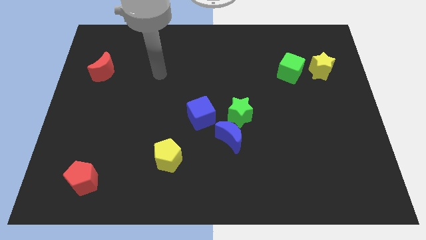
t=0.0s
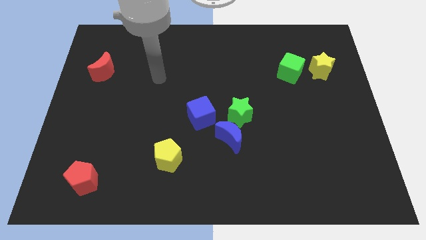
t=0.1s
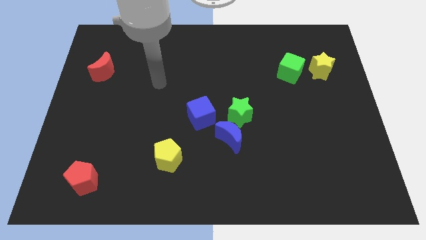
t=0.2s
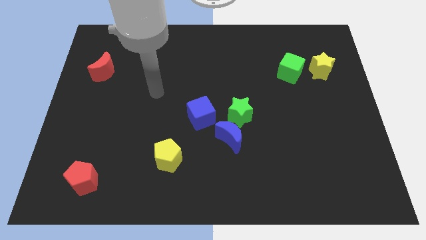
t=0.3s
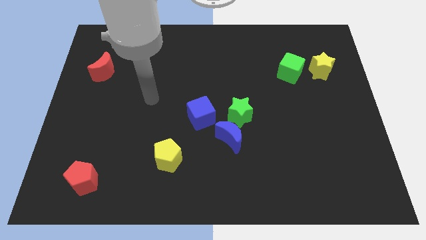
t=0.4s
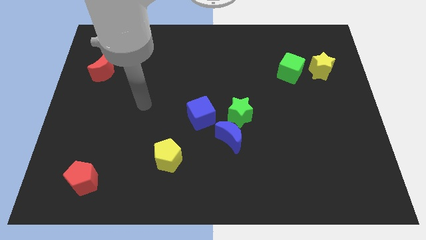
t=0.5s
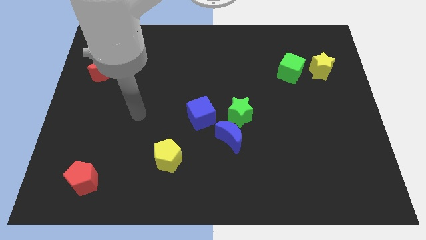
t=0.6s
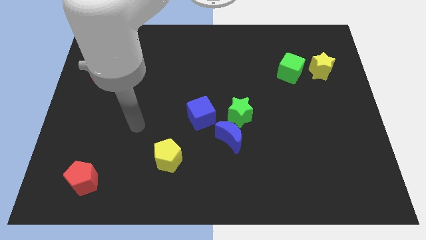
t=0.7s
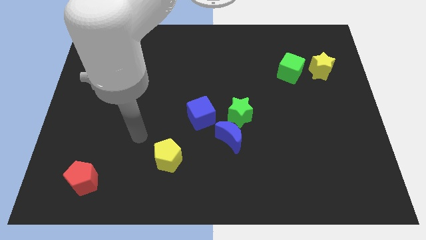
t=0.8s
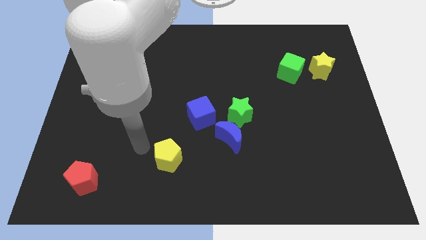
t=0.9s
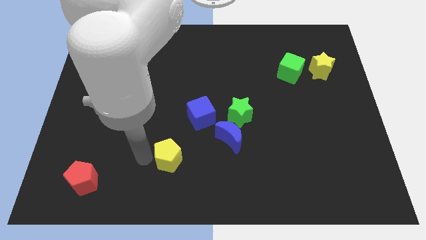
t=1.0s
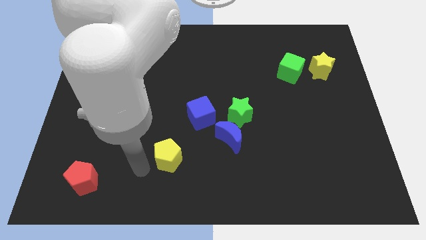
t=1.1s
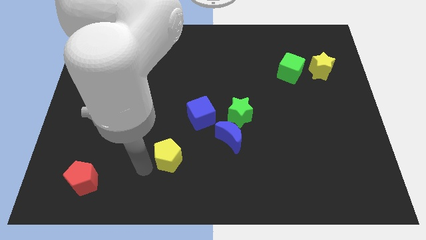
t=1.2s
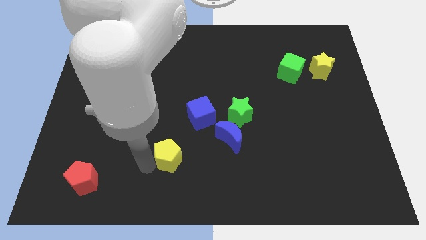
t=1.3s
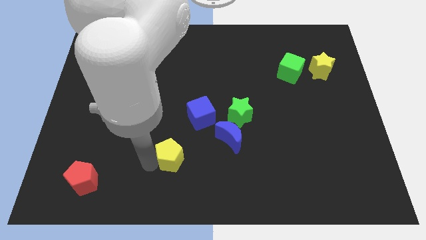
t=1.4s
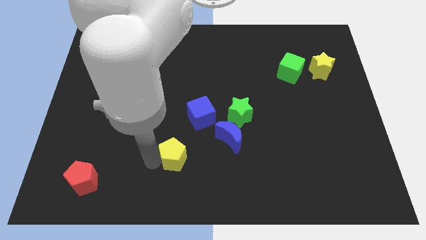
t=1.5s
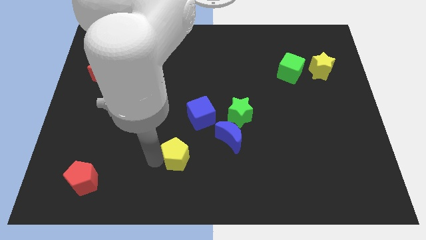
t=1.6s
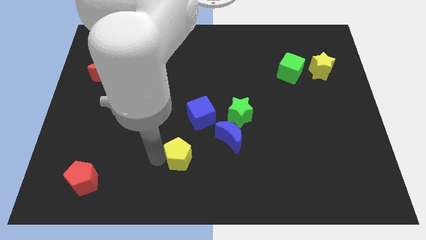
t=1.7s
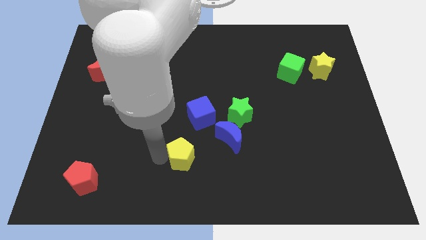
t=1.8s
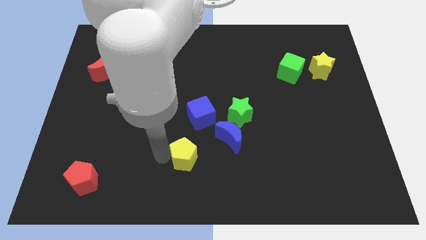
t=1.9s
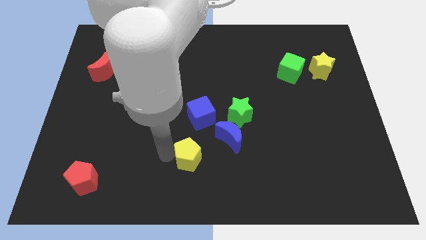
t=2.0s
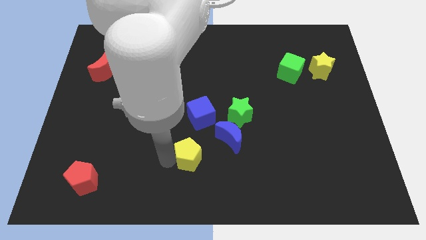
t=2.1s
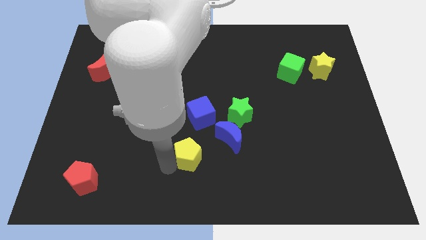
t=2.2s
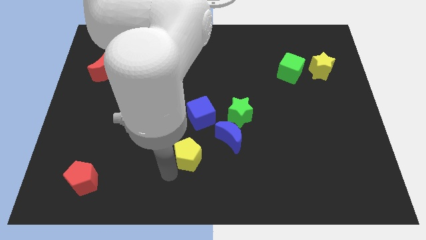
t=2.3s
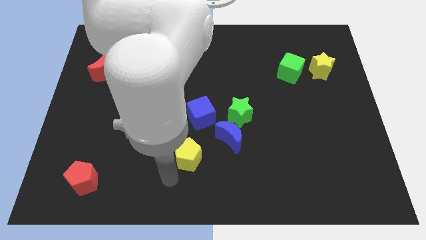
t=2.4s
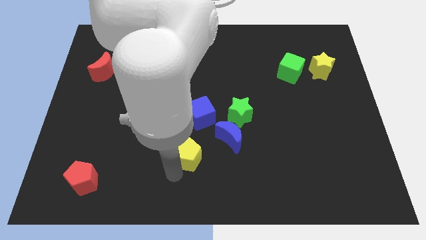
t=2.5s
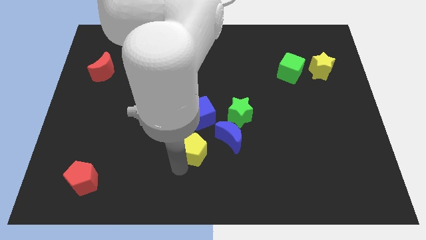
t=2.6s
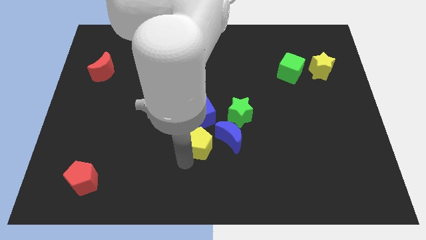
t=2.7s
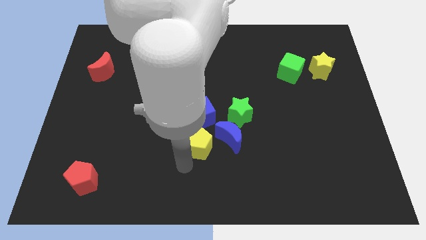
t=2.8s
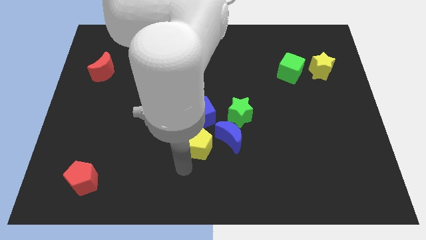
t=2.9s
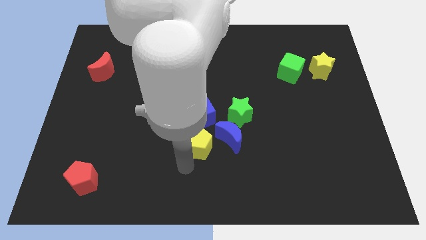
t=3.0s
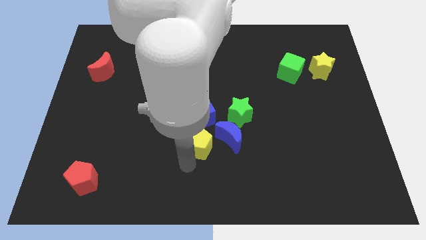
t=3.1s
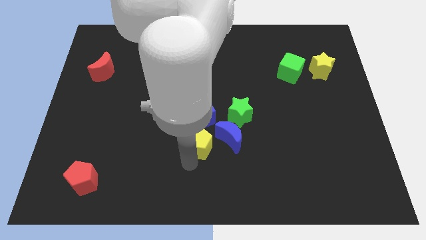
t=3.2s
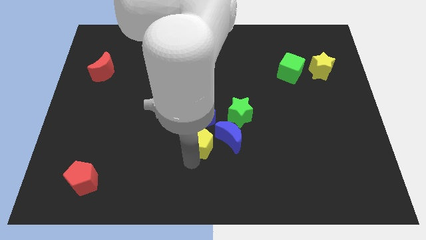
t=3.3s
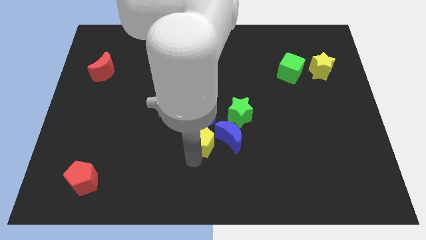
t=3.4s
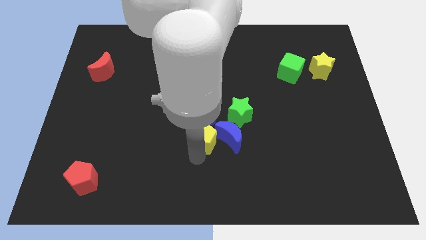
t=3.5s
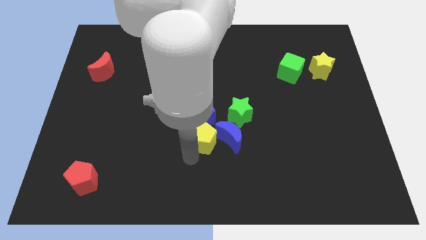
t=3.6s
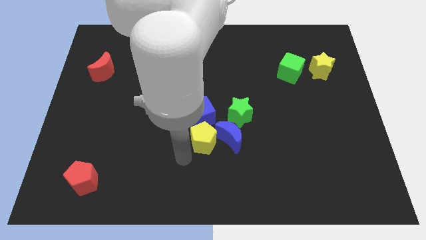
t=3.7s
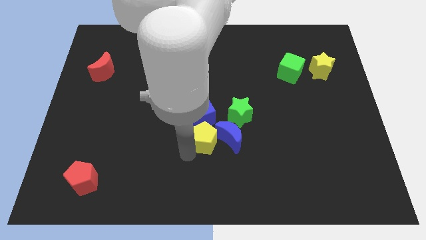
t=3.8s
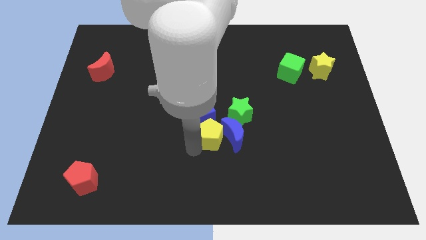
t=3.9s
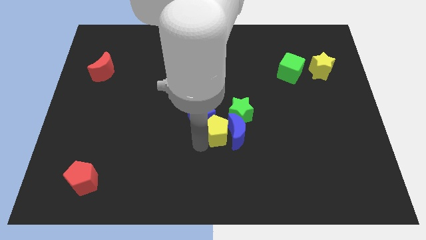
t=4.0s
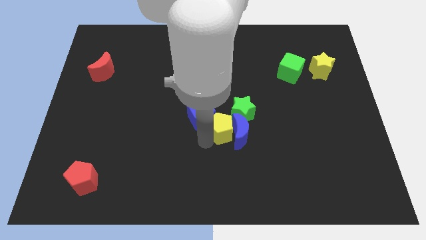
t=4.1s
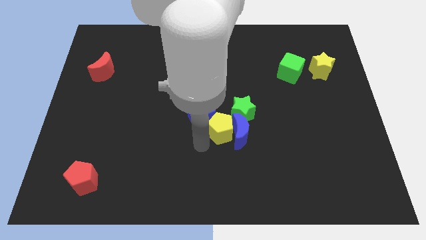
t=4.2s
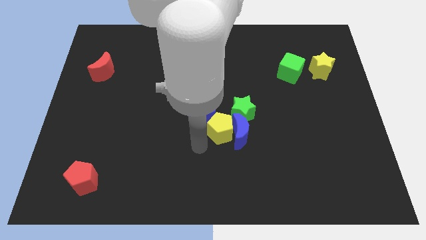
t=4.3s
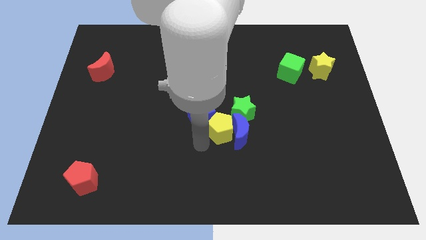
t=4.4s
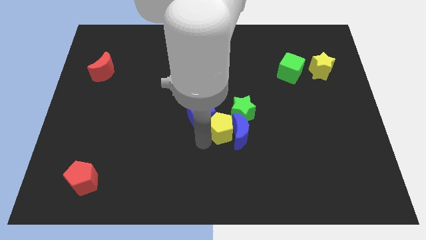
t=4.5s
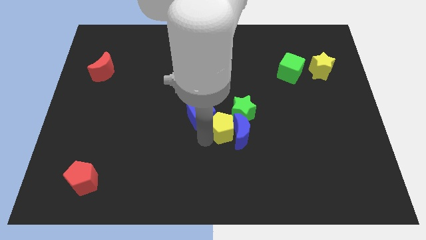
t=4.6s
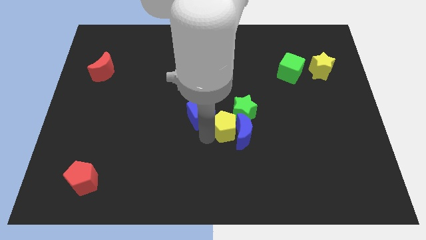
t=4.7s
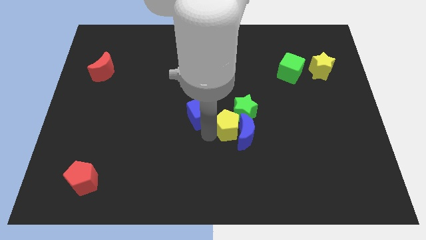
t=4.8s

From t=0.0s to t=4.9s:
slide the yellow pentagon to the green star

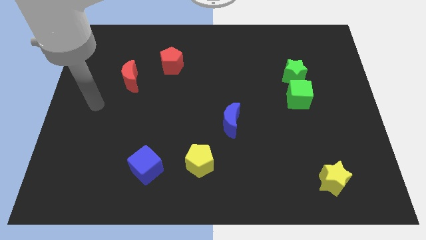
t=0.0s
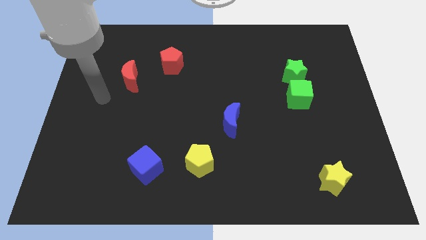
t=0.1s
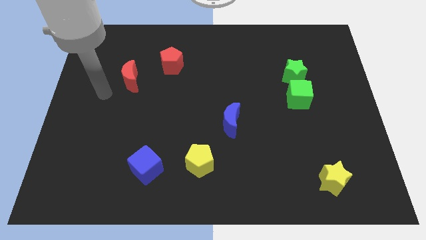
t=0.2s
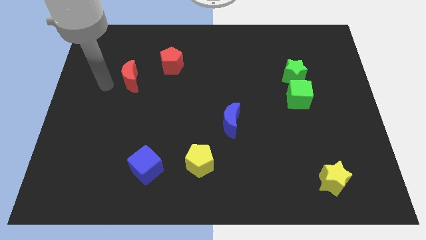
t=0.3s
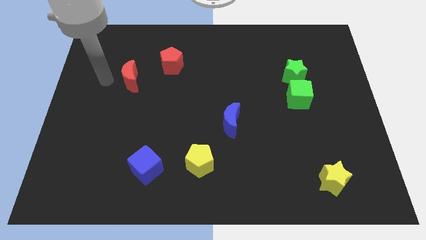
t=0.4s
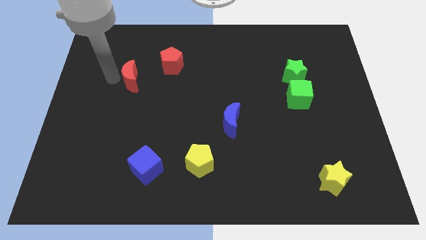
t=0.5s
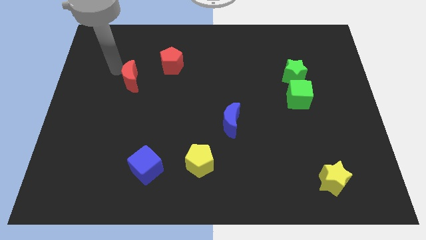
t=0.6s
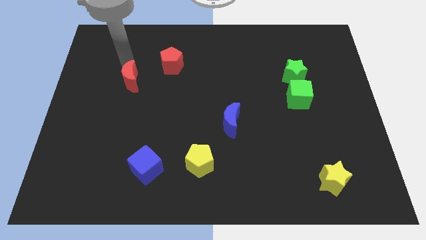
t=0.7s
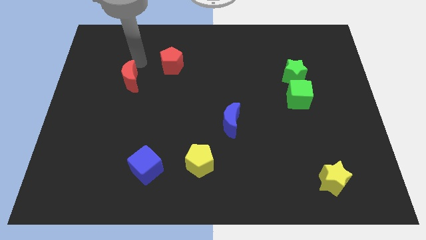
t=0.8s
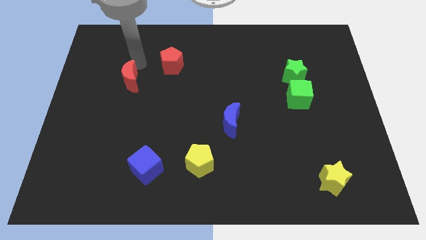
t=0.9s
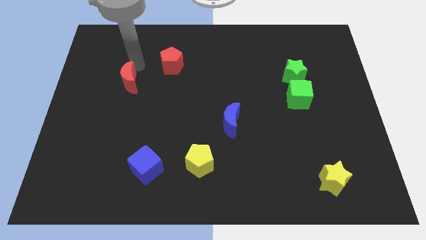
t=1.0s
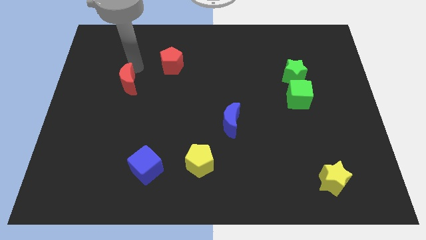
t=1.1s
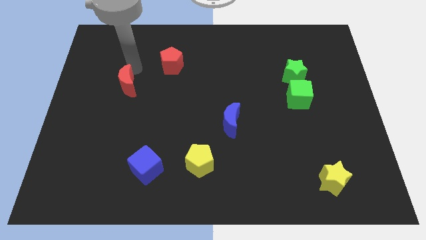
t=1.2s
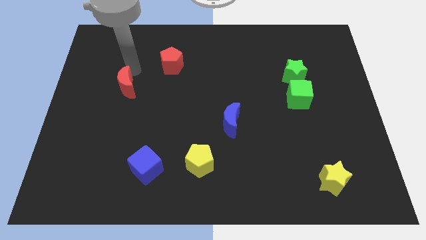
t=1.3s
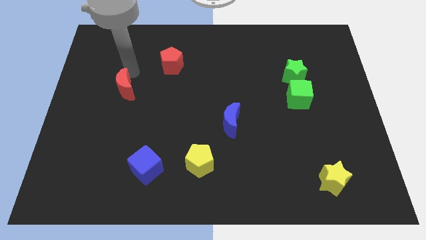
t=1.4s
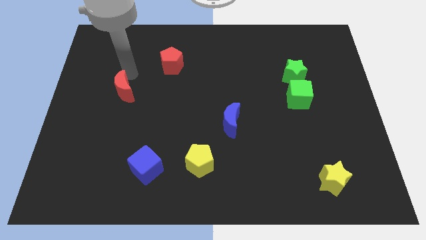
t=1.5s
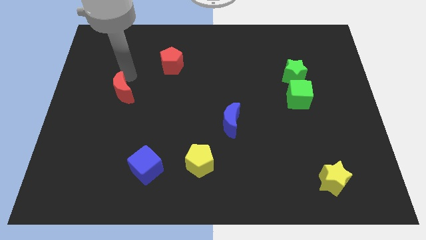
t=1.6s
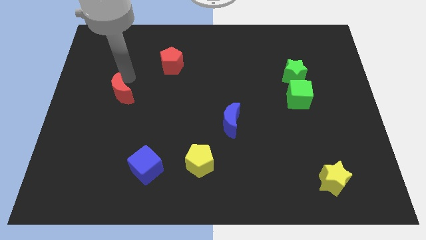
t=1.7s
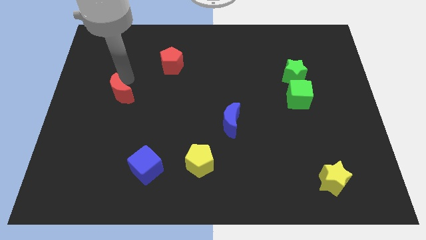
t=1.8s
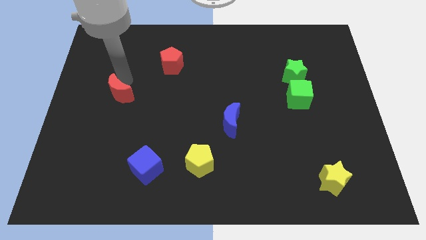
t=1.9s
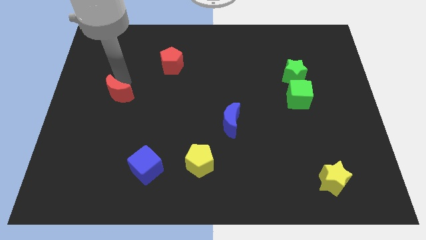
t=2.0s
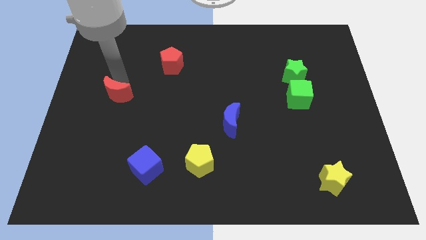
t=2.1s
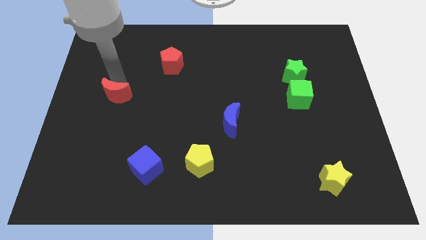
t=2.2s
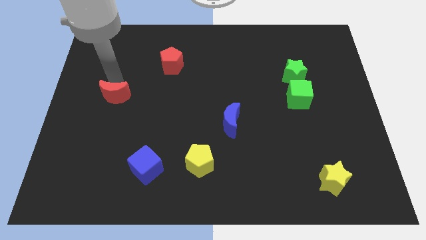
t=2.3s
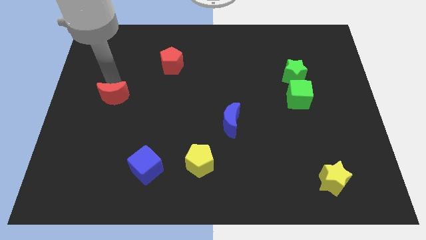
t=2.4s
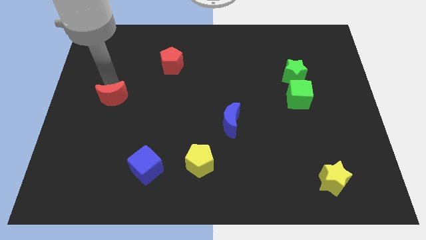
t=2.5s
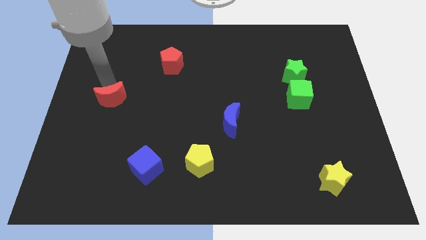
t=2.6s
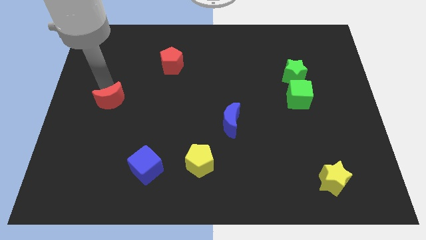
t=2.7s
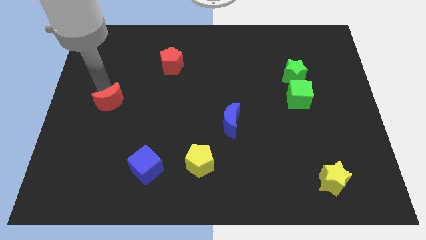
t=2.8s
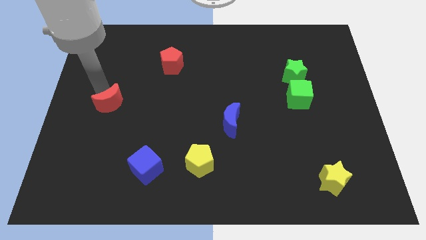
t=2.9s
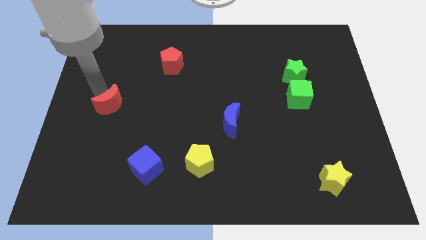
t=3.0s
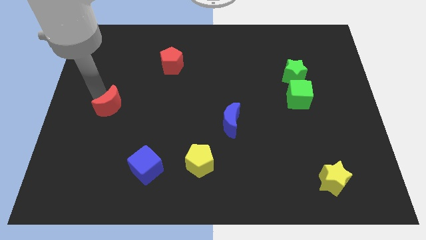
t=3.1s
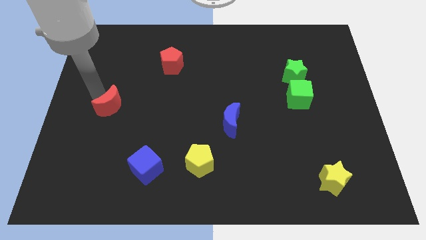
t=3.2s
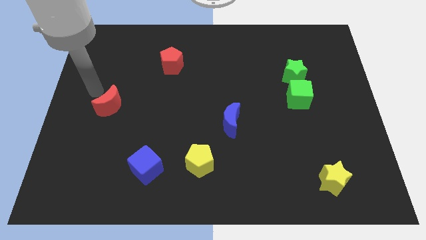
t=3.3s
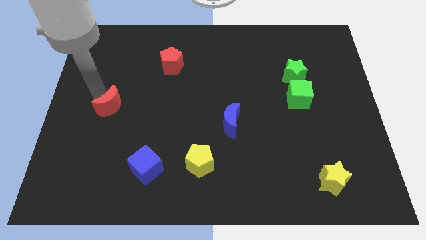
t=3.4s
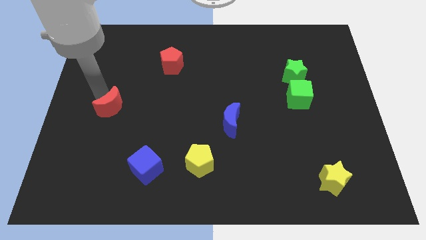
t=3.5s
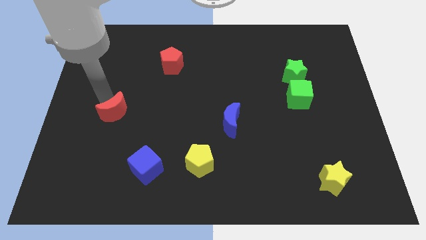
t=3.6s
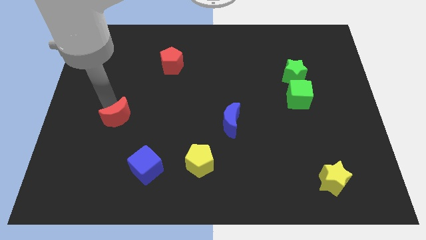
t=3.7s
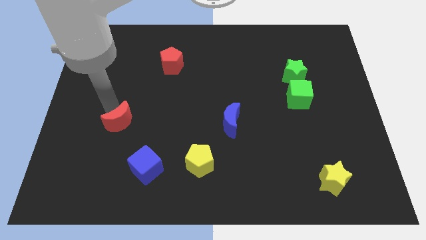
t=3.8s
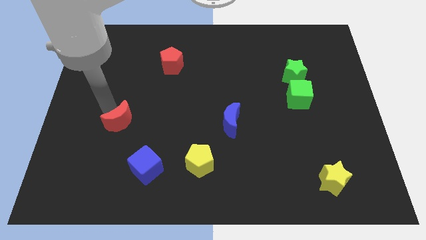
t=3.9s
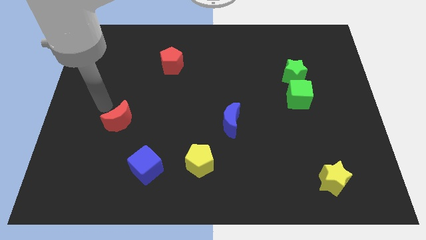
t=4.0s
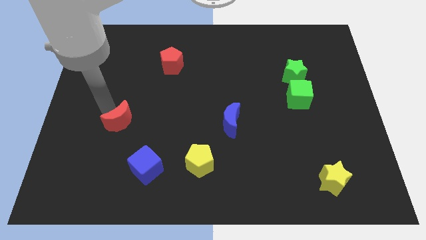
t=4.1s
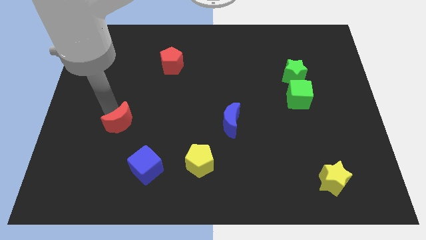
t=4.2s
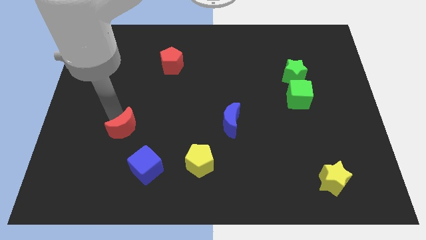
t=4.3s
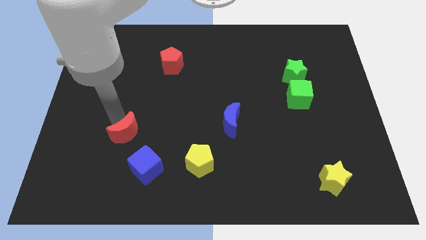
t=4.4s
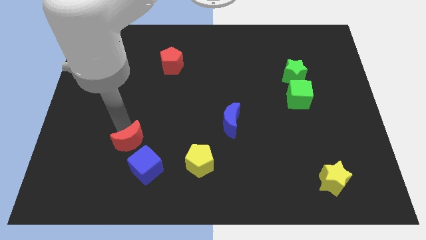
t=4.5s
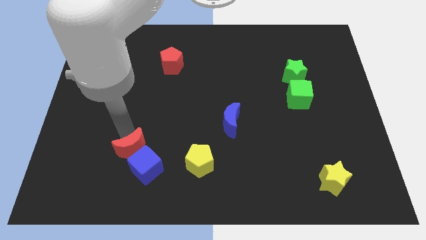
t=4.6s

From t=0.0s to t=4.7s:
push the red moon to the blue cube
